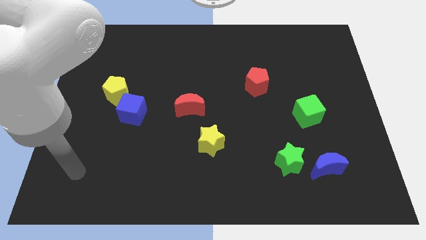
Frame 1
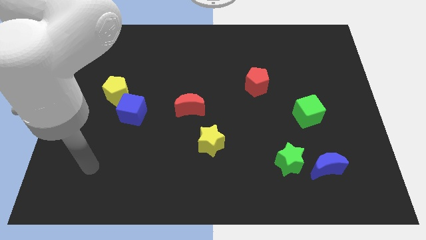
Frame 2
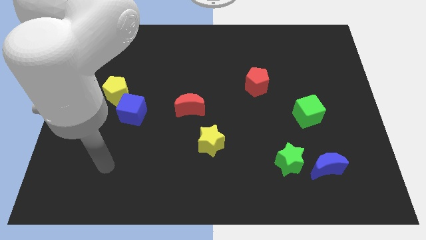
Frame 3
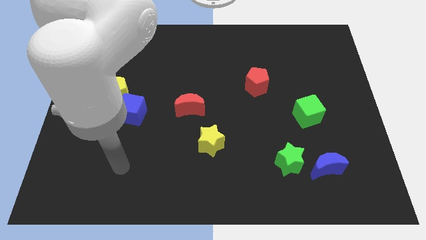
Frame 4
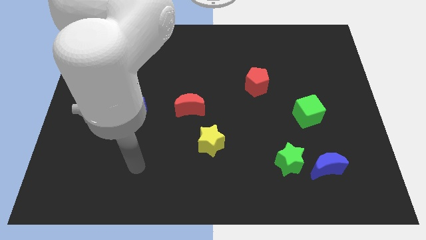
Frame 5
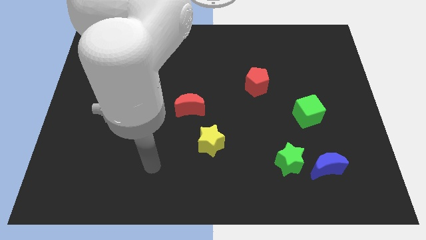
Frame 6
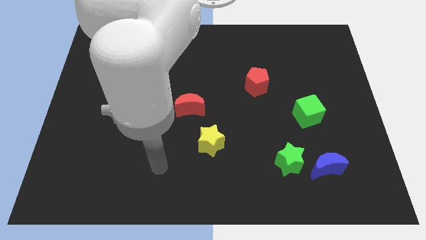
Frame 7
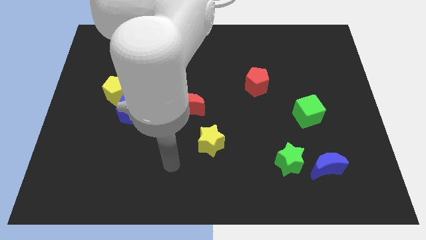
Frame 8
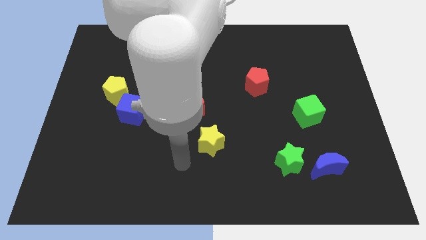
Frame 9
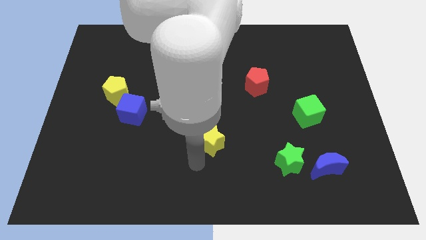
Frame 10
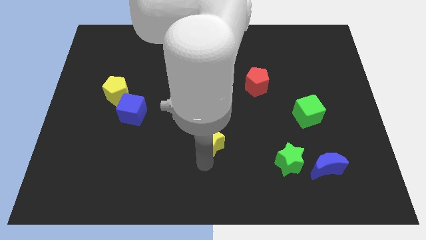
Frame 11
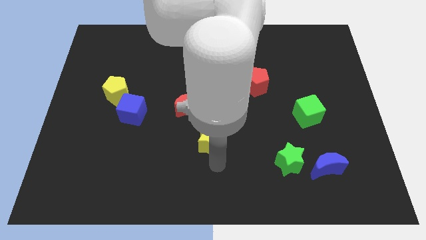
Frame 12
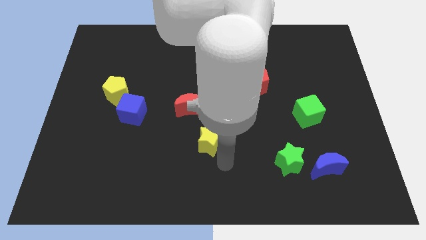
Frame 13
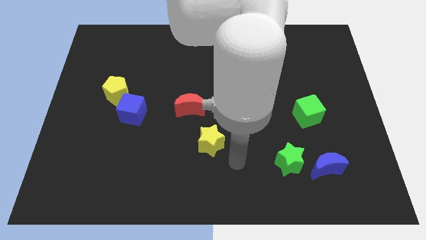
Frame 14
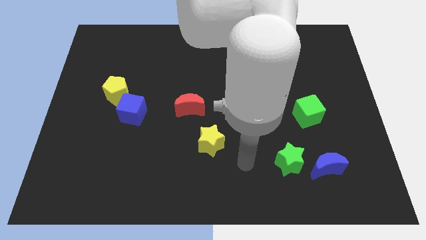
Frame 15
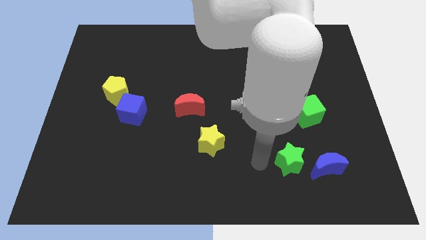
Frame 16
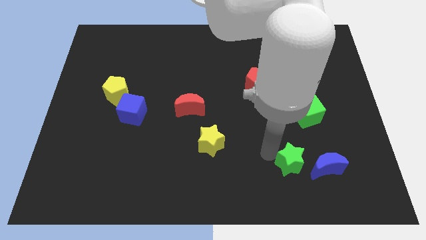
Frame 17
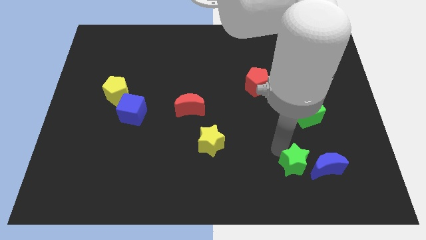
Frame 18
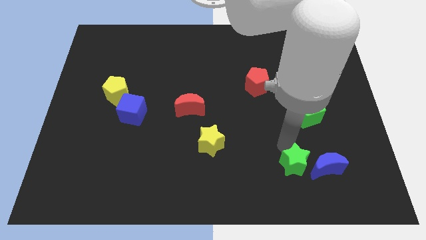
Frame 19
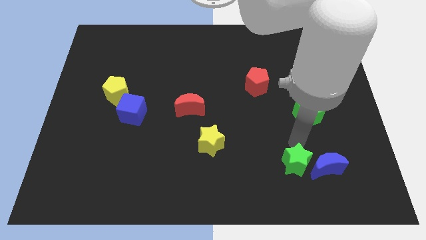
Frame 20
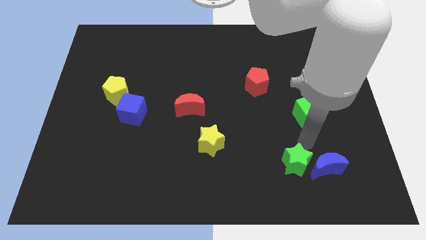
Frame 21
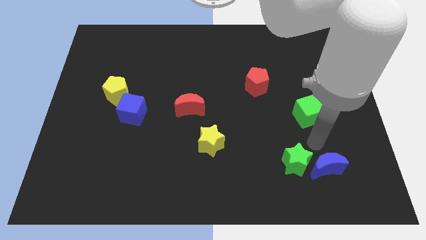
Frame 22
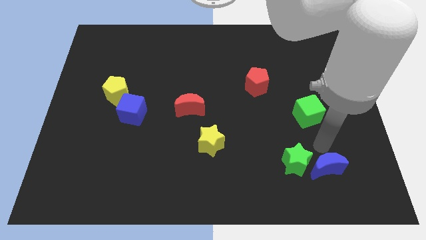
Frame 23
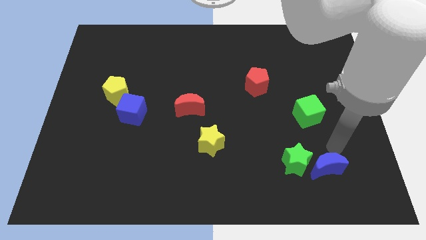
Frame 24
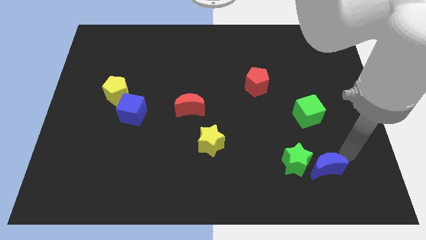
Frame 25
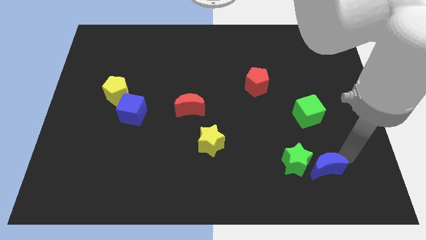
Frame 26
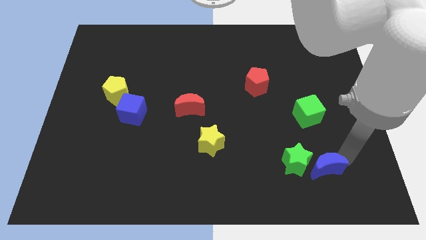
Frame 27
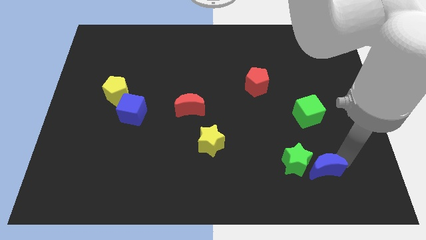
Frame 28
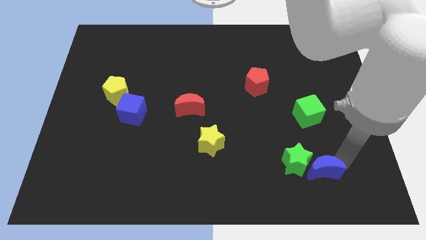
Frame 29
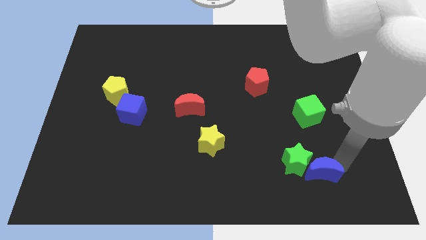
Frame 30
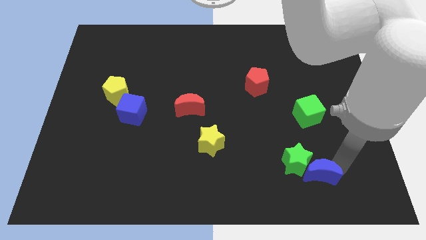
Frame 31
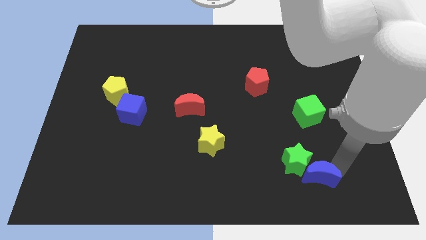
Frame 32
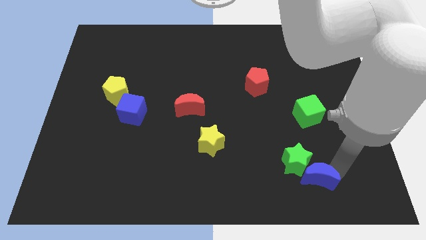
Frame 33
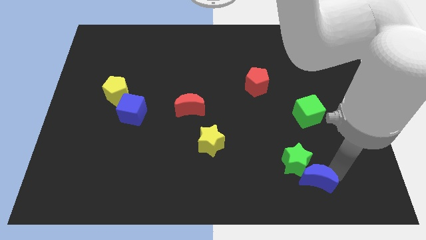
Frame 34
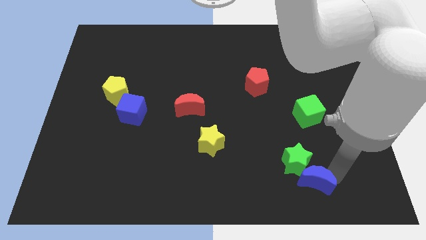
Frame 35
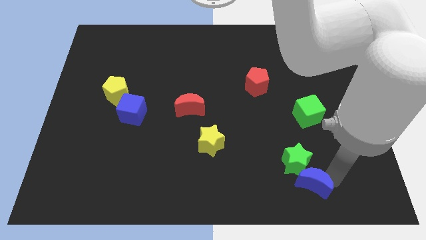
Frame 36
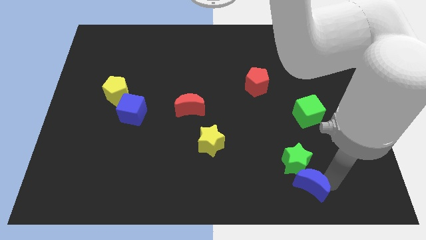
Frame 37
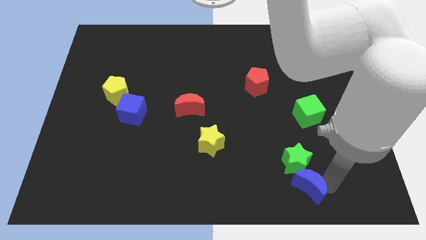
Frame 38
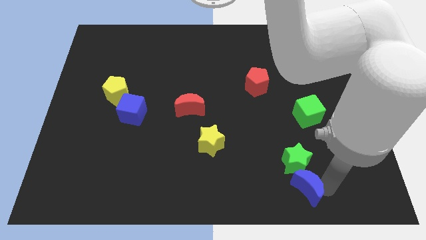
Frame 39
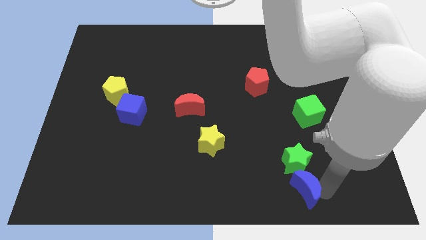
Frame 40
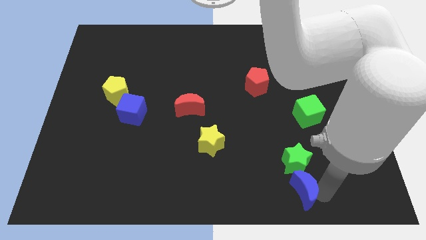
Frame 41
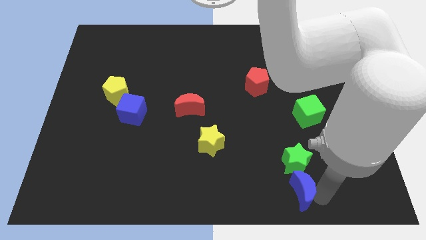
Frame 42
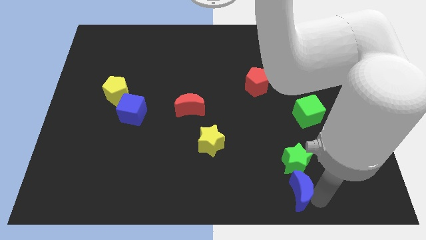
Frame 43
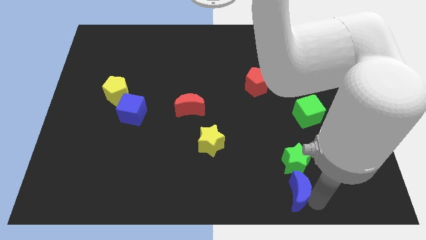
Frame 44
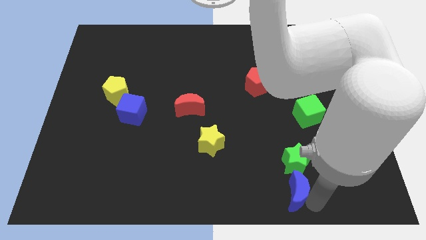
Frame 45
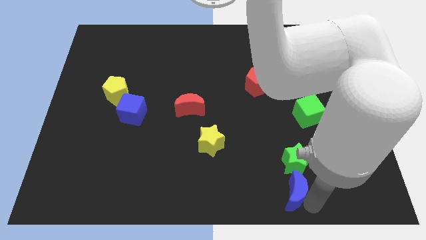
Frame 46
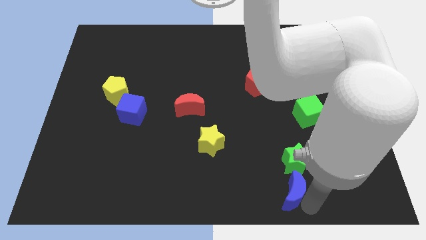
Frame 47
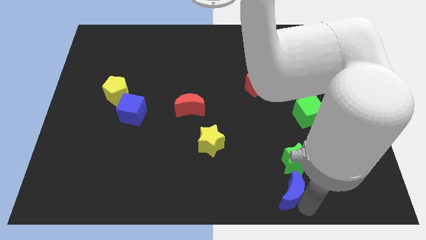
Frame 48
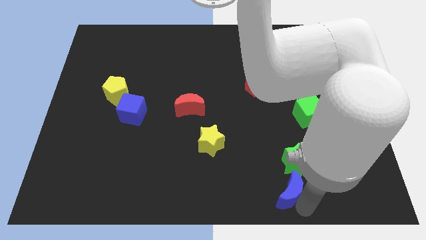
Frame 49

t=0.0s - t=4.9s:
push the blue moon to the left somewhat

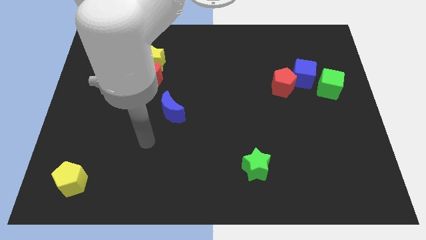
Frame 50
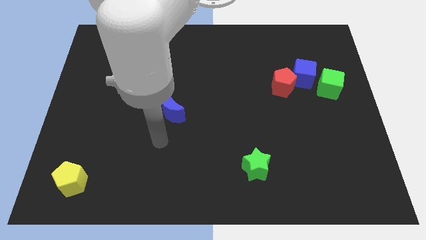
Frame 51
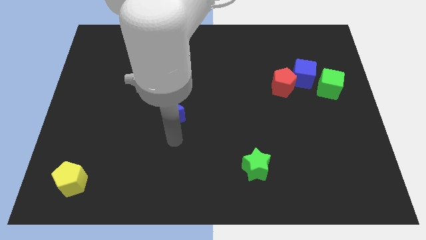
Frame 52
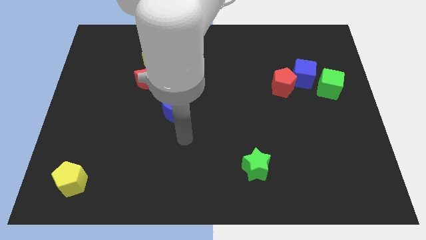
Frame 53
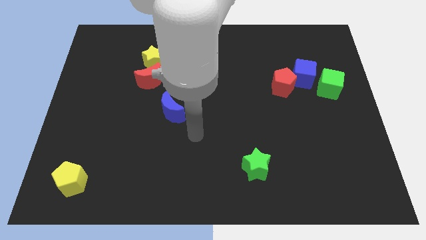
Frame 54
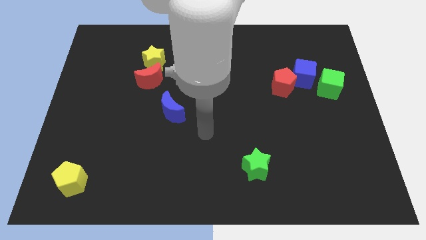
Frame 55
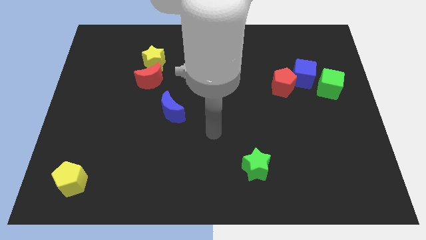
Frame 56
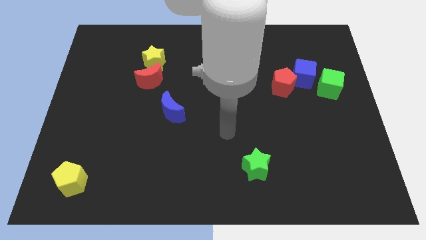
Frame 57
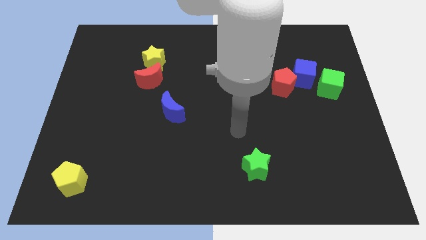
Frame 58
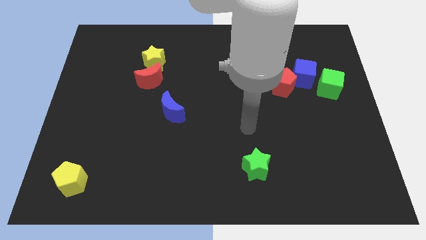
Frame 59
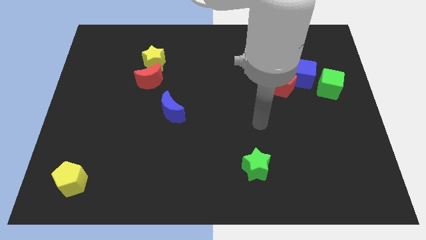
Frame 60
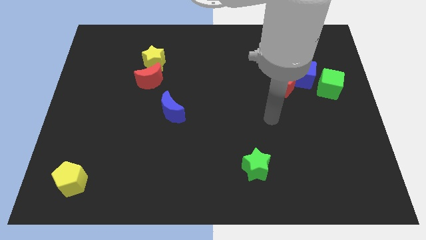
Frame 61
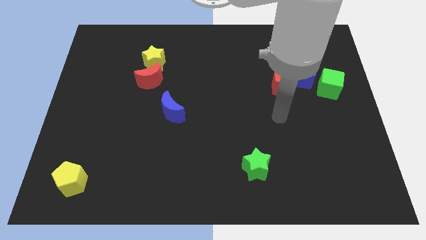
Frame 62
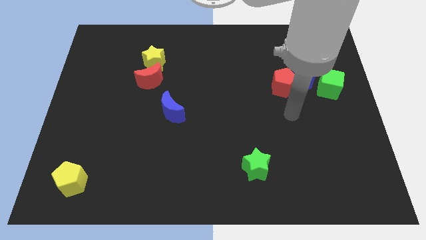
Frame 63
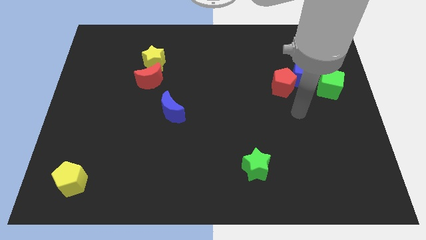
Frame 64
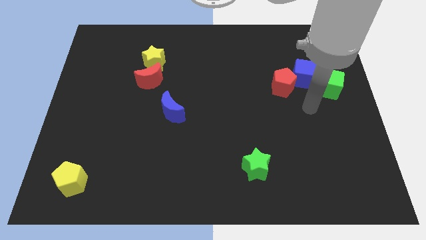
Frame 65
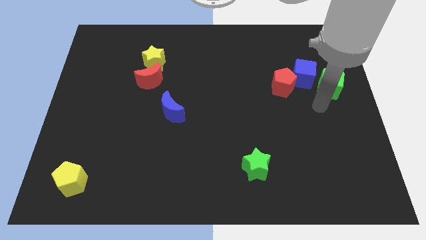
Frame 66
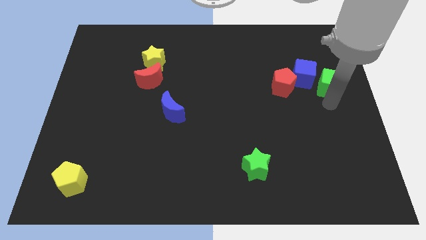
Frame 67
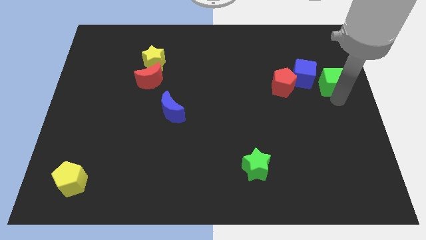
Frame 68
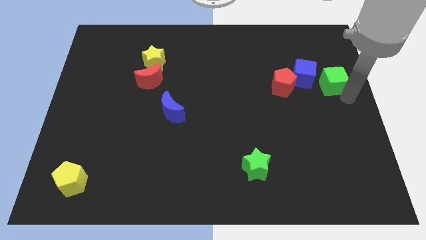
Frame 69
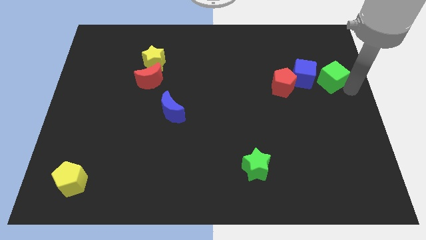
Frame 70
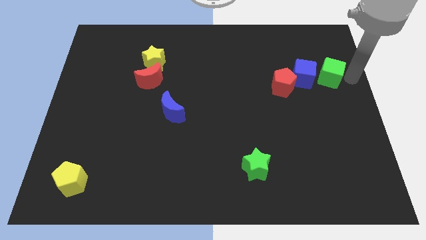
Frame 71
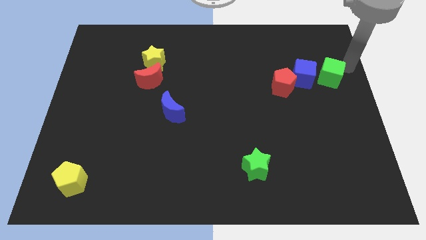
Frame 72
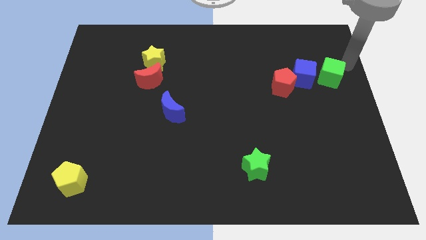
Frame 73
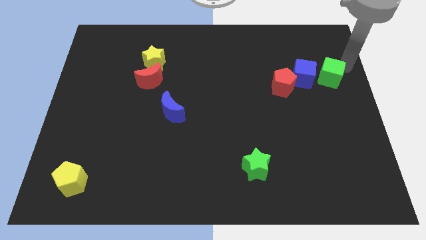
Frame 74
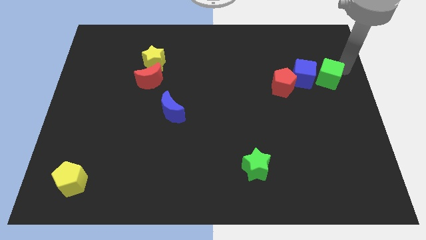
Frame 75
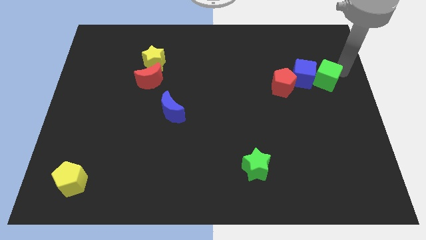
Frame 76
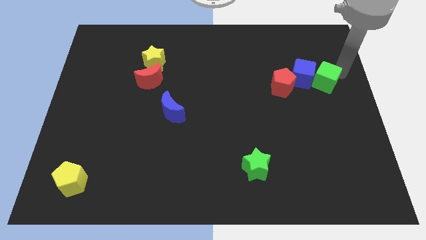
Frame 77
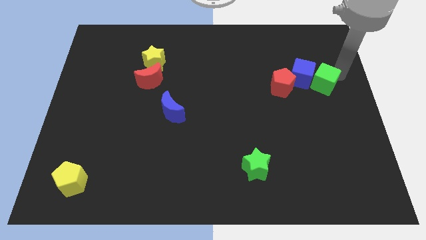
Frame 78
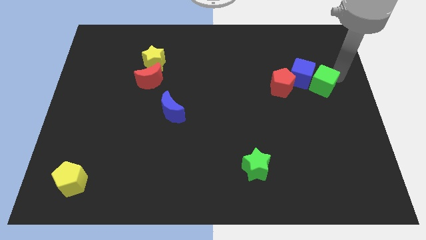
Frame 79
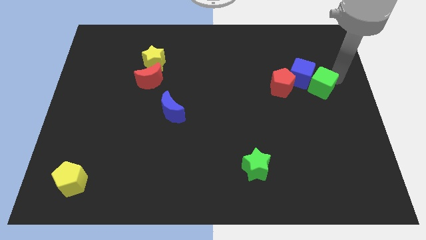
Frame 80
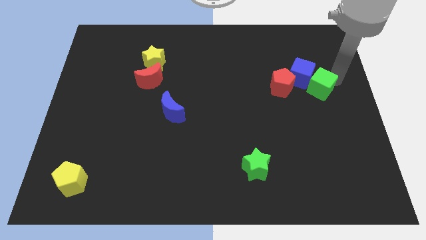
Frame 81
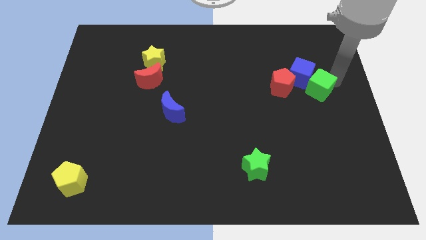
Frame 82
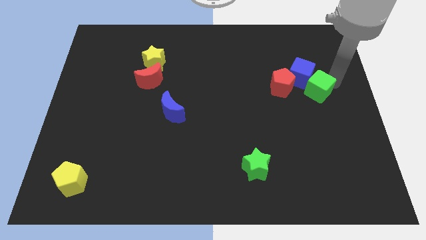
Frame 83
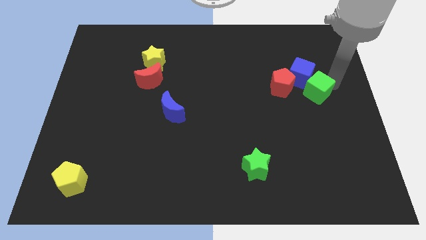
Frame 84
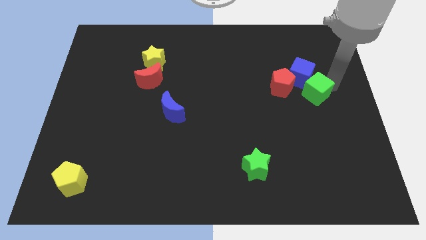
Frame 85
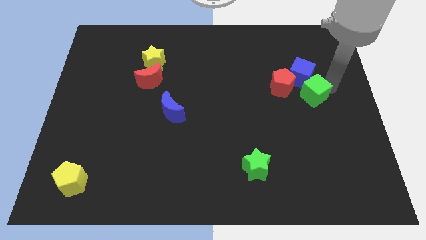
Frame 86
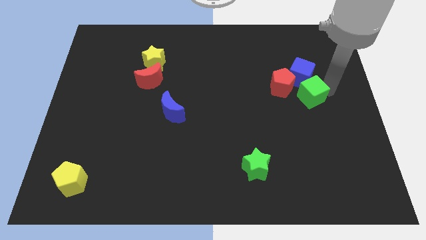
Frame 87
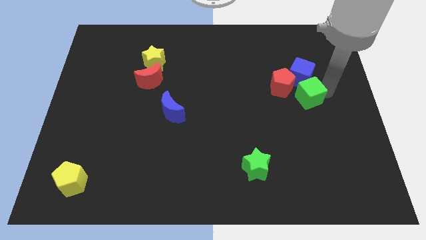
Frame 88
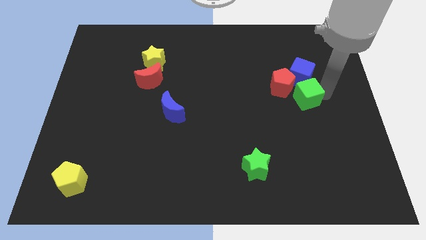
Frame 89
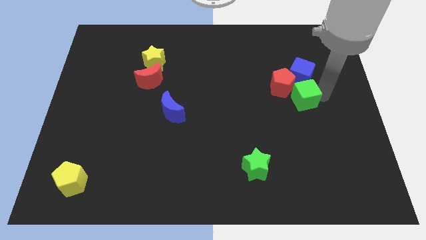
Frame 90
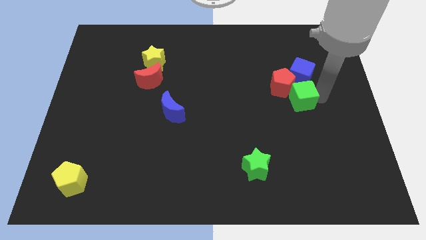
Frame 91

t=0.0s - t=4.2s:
slightly slide the green cube to the left
